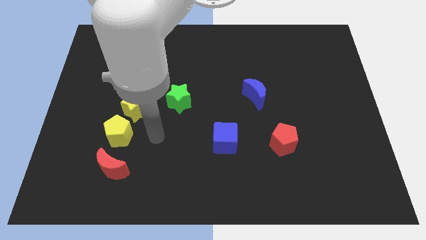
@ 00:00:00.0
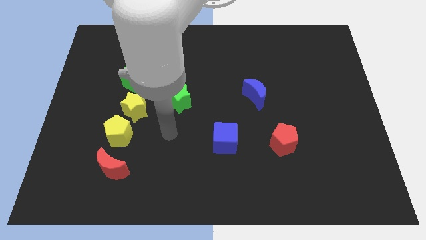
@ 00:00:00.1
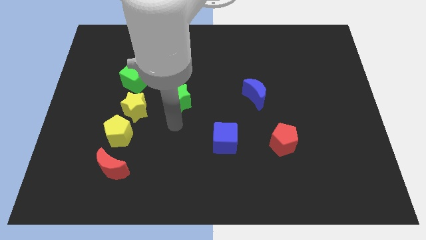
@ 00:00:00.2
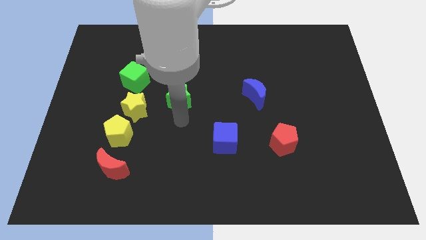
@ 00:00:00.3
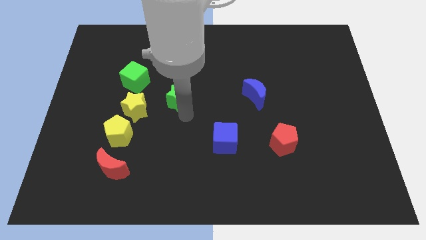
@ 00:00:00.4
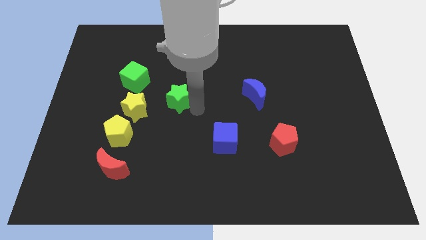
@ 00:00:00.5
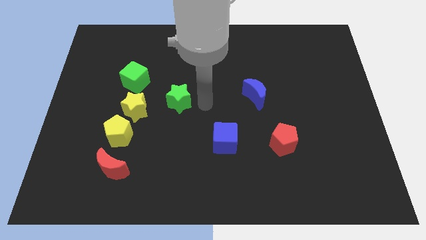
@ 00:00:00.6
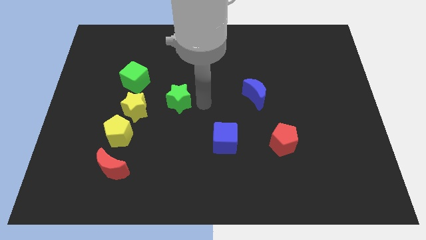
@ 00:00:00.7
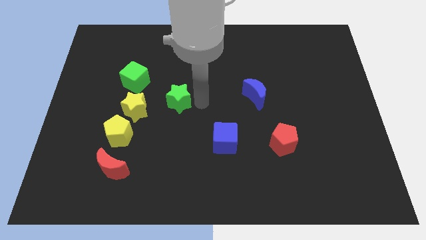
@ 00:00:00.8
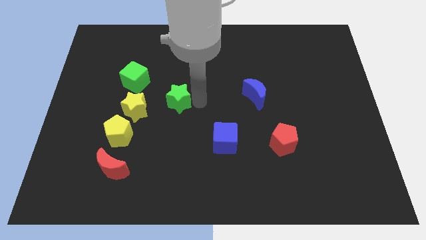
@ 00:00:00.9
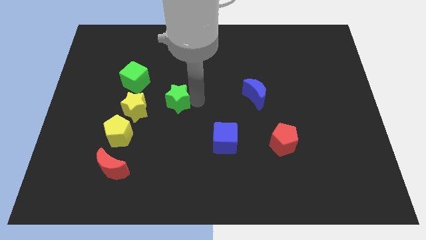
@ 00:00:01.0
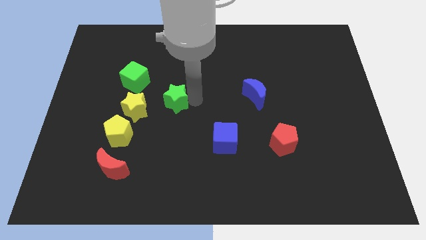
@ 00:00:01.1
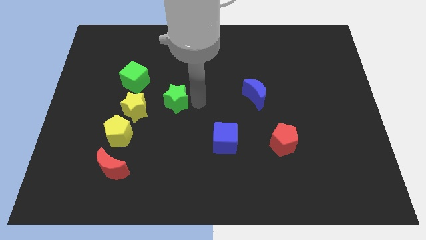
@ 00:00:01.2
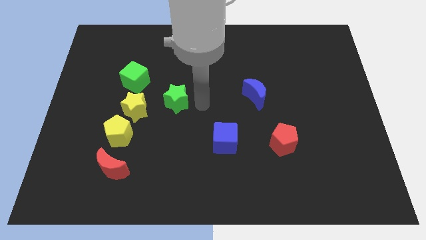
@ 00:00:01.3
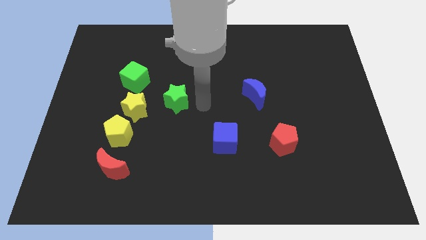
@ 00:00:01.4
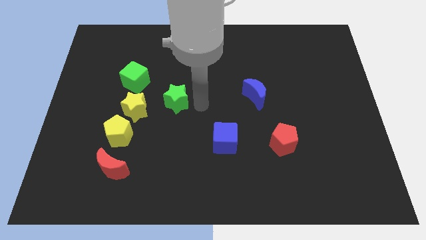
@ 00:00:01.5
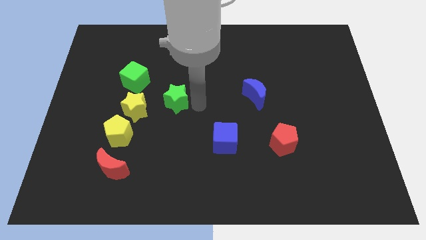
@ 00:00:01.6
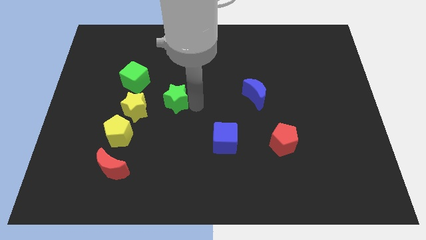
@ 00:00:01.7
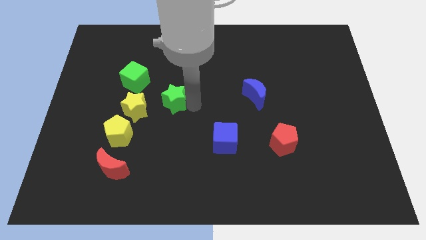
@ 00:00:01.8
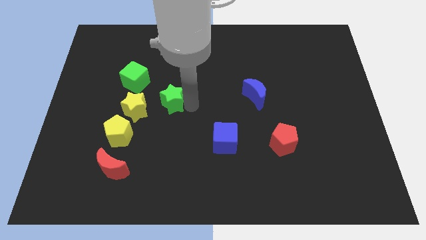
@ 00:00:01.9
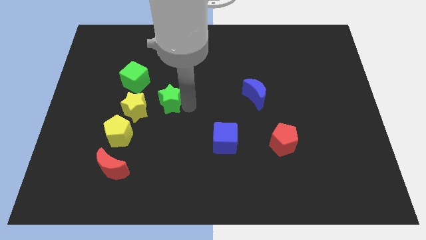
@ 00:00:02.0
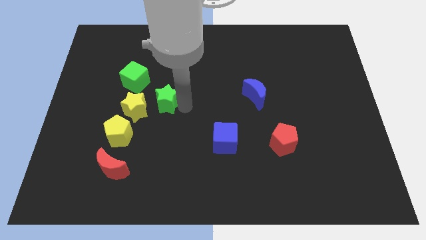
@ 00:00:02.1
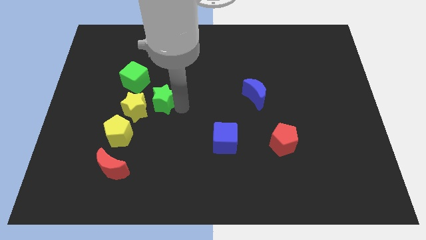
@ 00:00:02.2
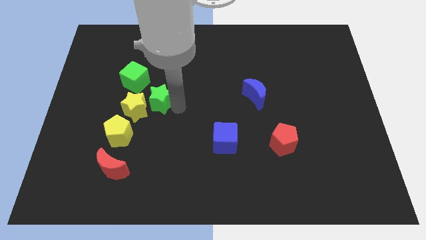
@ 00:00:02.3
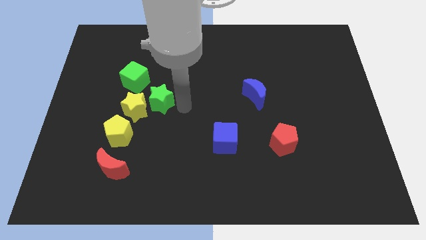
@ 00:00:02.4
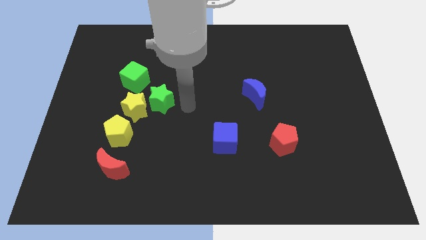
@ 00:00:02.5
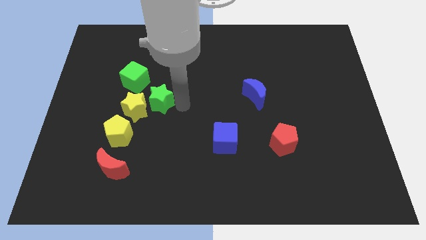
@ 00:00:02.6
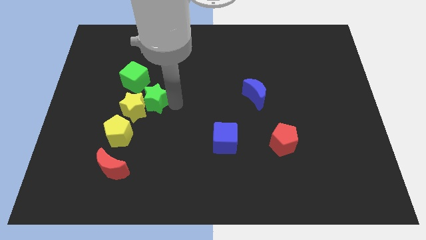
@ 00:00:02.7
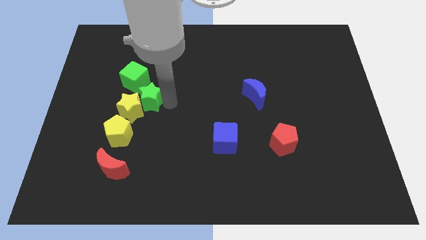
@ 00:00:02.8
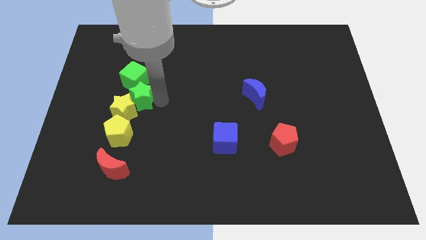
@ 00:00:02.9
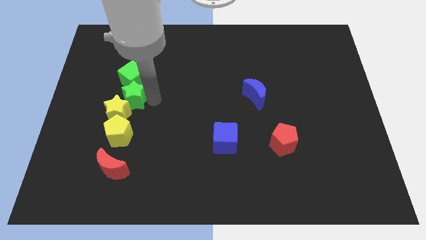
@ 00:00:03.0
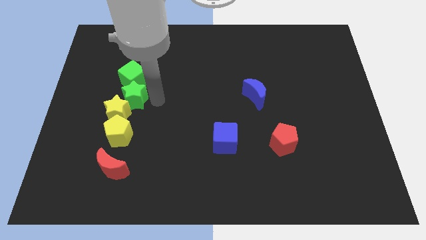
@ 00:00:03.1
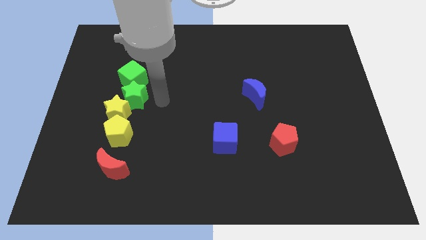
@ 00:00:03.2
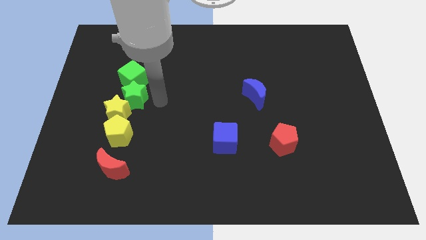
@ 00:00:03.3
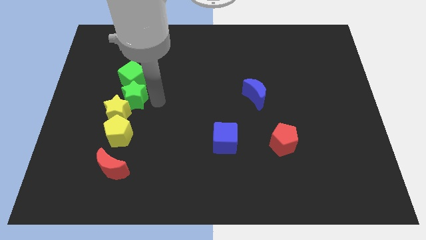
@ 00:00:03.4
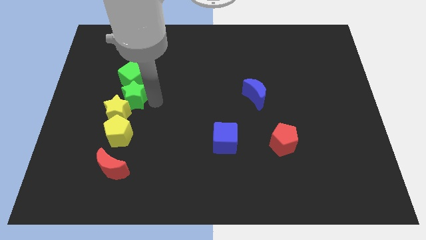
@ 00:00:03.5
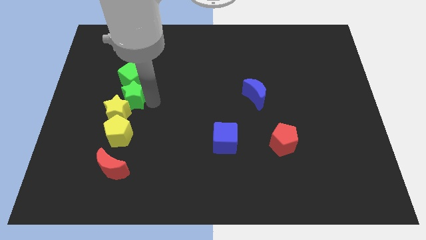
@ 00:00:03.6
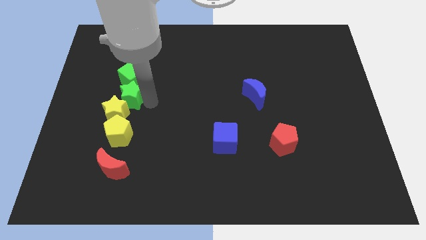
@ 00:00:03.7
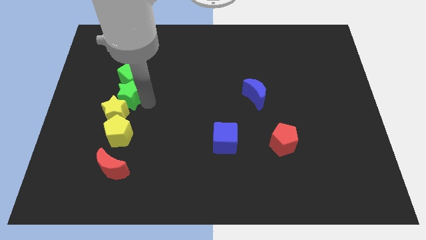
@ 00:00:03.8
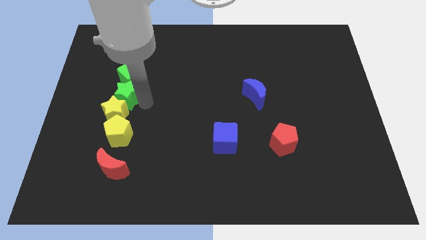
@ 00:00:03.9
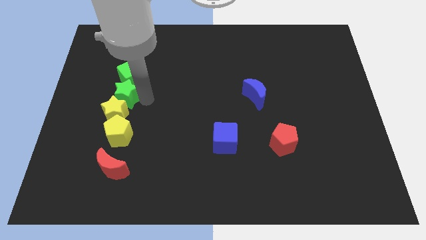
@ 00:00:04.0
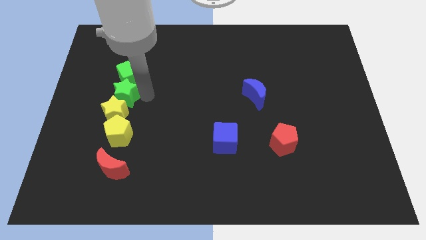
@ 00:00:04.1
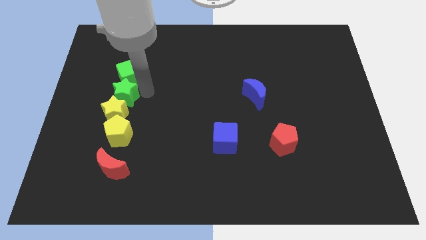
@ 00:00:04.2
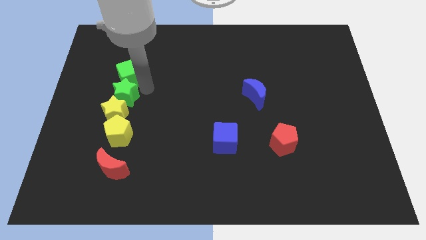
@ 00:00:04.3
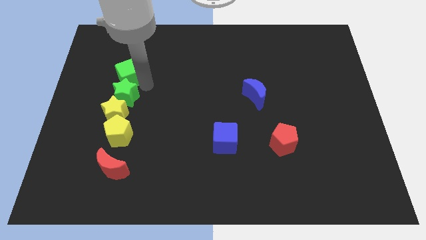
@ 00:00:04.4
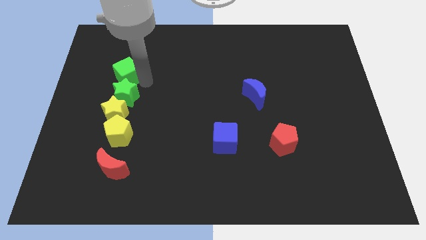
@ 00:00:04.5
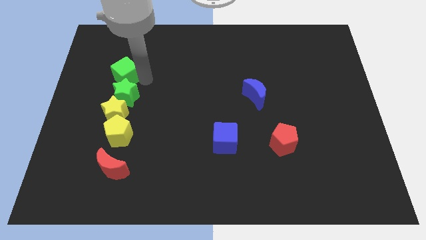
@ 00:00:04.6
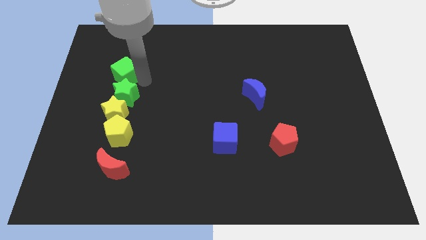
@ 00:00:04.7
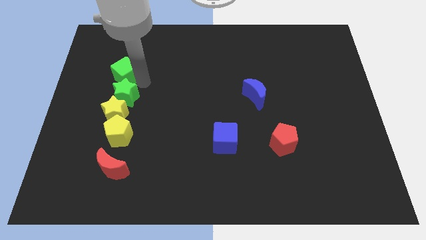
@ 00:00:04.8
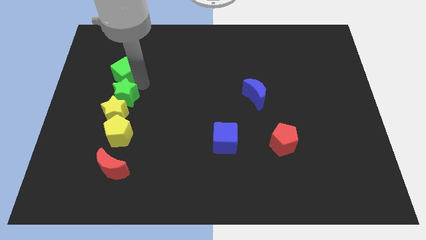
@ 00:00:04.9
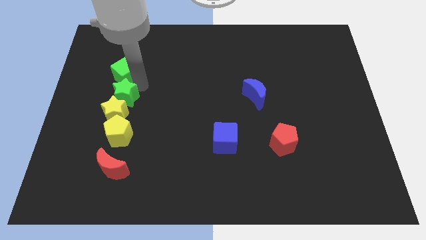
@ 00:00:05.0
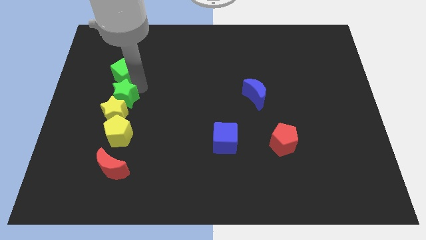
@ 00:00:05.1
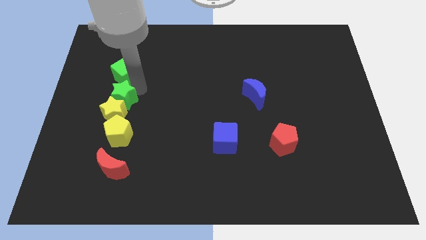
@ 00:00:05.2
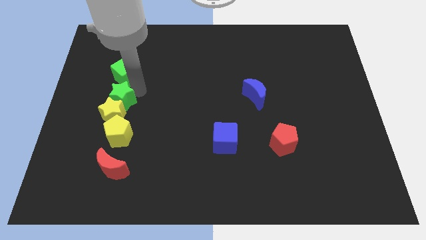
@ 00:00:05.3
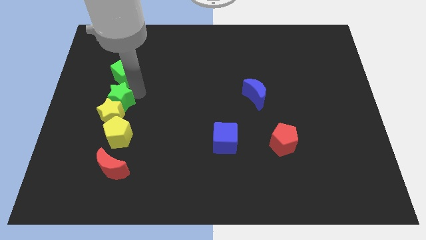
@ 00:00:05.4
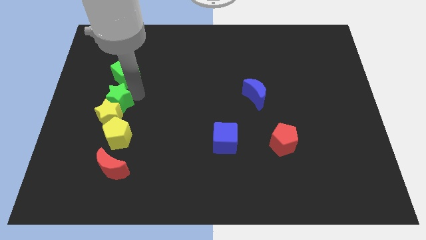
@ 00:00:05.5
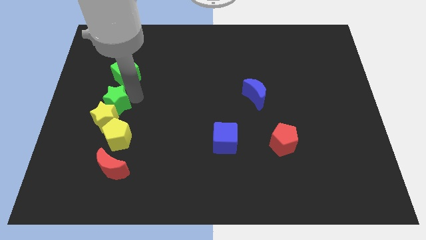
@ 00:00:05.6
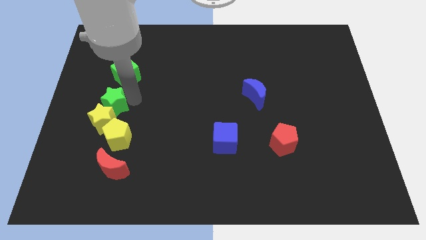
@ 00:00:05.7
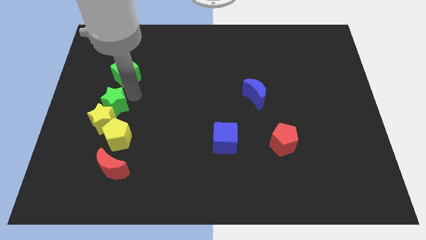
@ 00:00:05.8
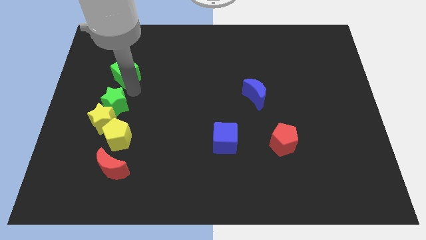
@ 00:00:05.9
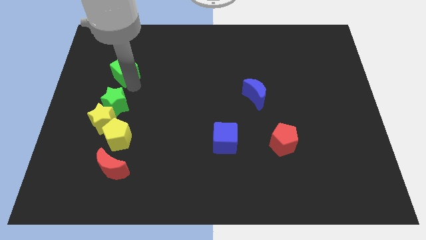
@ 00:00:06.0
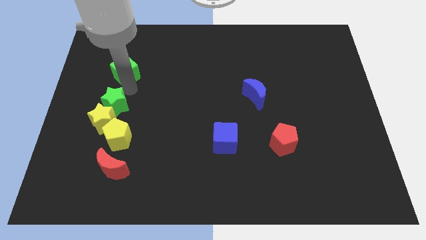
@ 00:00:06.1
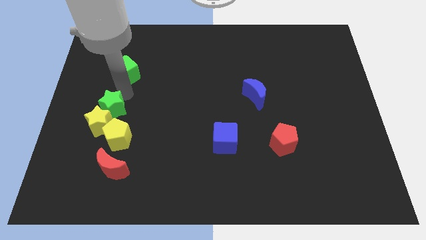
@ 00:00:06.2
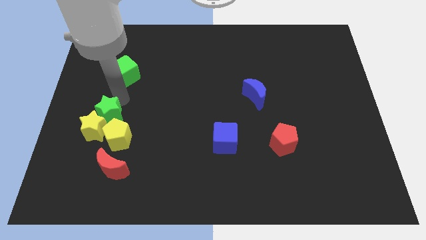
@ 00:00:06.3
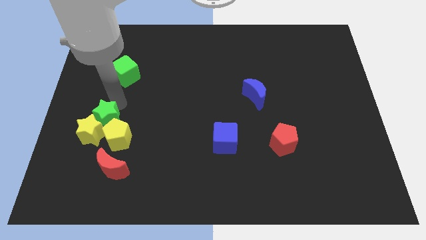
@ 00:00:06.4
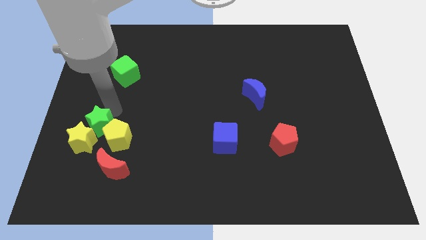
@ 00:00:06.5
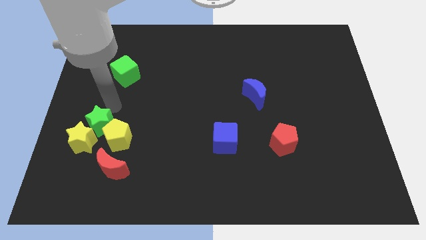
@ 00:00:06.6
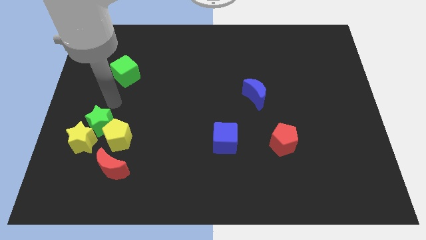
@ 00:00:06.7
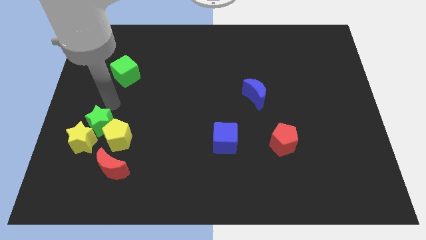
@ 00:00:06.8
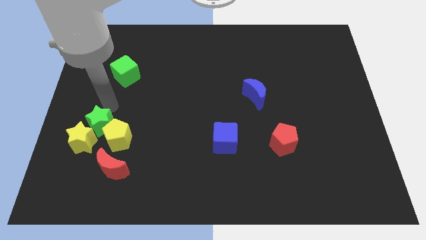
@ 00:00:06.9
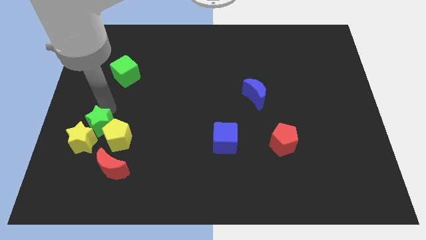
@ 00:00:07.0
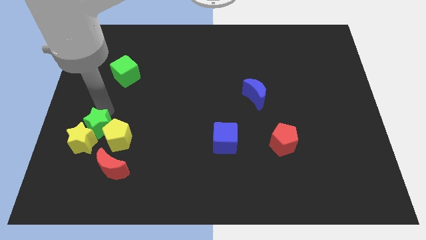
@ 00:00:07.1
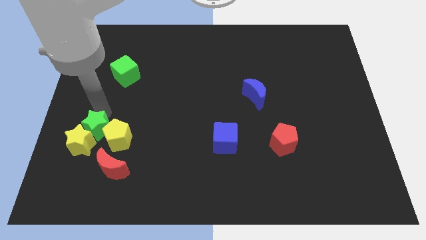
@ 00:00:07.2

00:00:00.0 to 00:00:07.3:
slide the green star diagonally up and to the left of the red moon

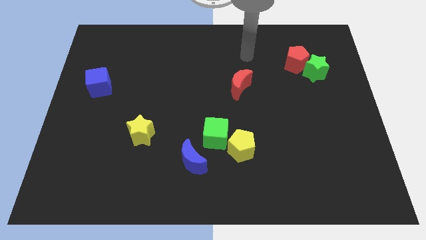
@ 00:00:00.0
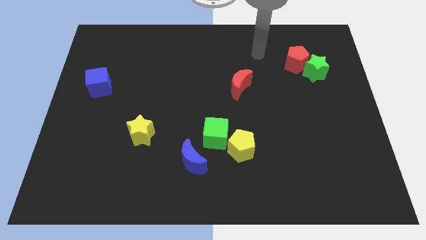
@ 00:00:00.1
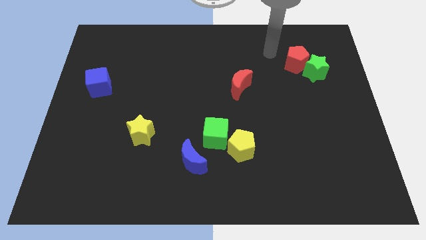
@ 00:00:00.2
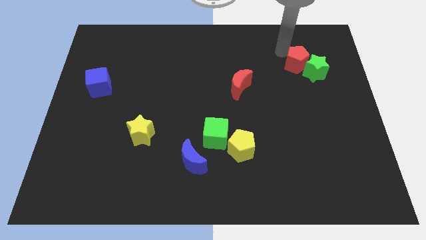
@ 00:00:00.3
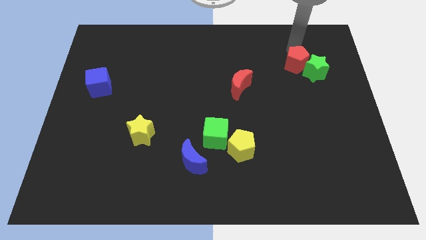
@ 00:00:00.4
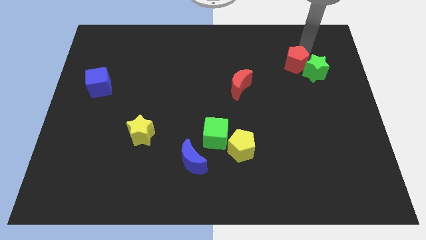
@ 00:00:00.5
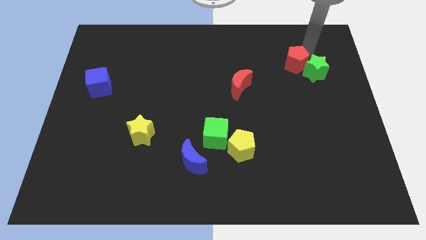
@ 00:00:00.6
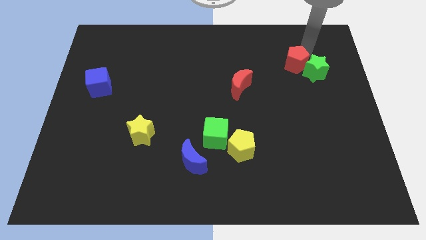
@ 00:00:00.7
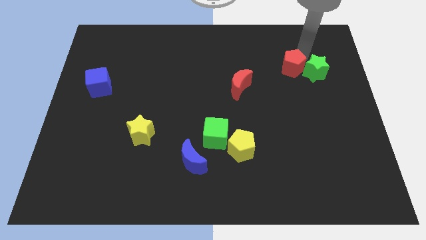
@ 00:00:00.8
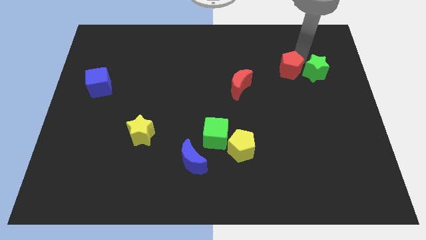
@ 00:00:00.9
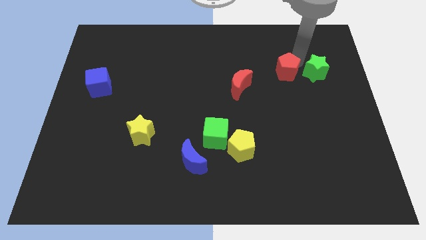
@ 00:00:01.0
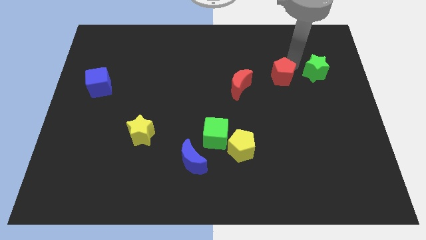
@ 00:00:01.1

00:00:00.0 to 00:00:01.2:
move the red pentagon just right of the red moon
